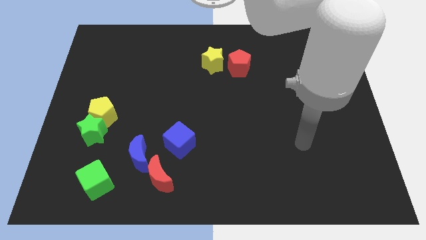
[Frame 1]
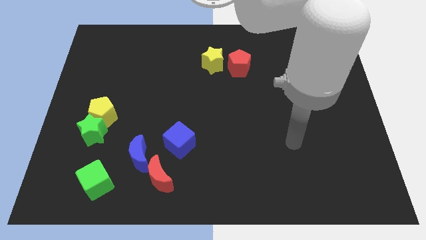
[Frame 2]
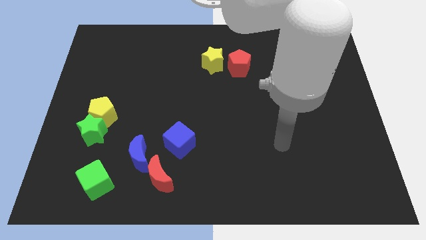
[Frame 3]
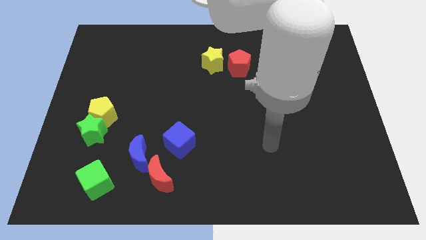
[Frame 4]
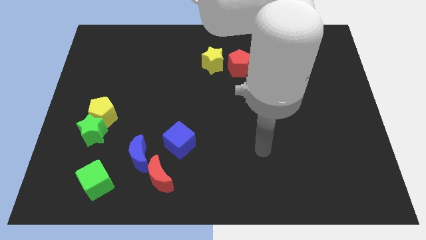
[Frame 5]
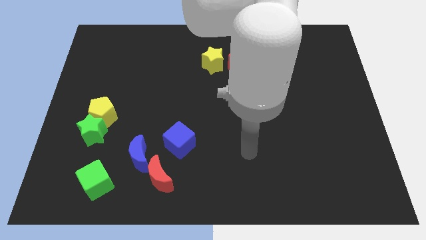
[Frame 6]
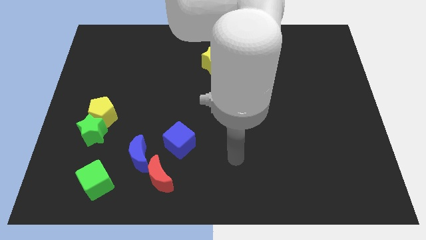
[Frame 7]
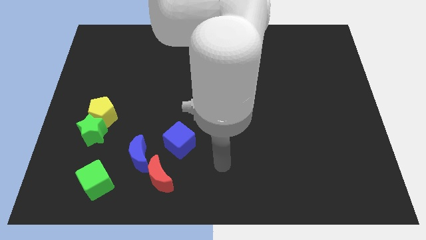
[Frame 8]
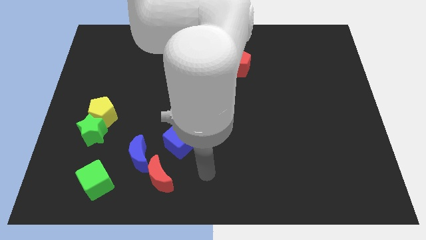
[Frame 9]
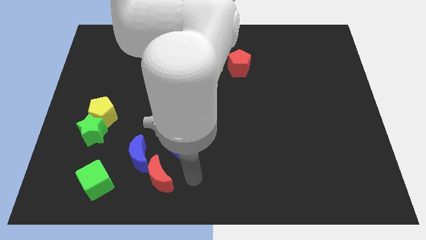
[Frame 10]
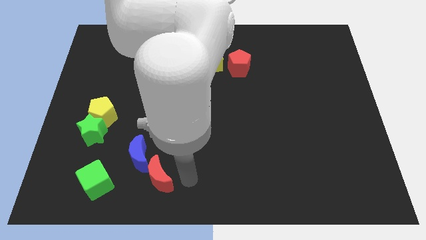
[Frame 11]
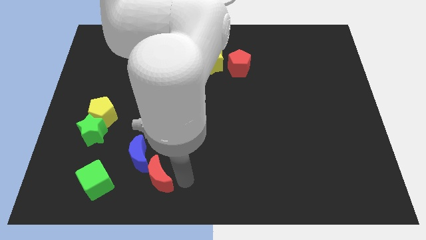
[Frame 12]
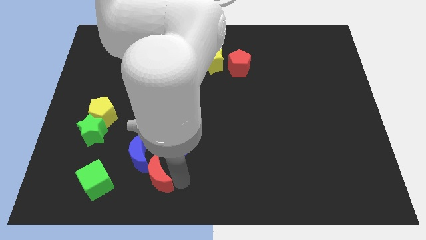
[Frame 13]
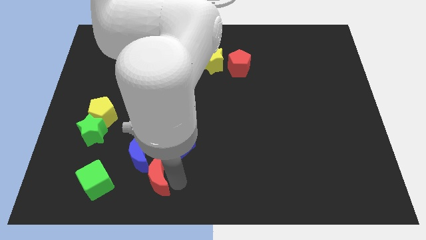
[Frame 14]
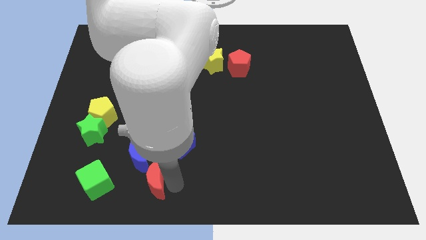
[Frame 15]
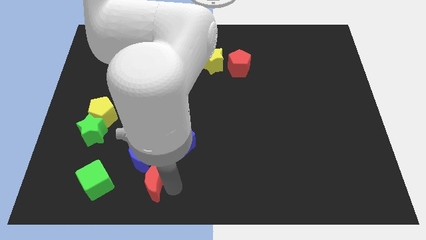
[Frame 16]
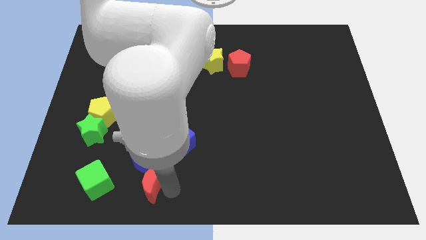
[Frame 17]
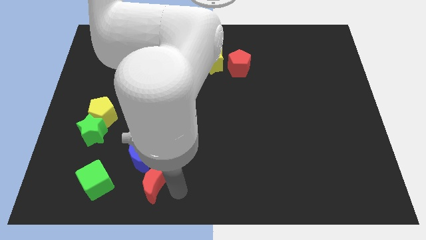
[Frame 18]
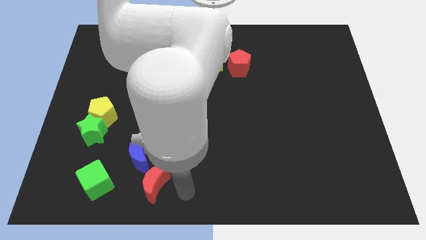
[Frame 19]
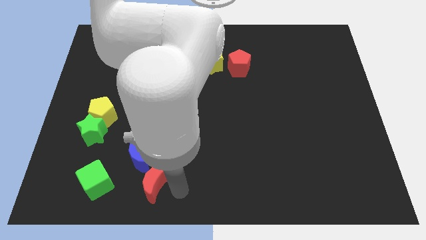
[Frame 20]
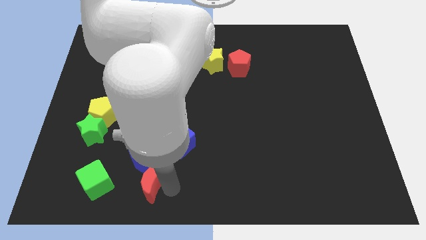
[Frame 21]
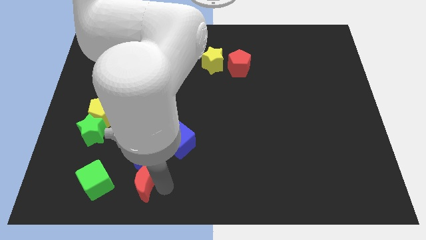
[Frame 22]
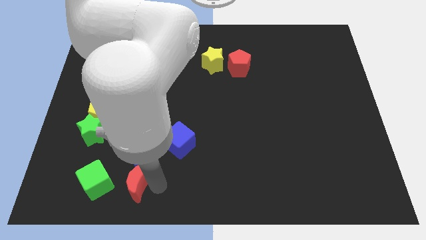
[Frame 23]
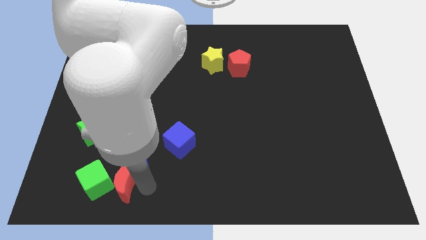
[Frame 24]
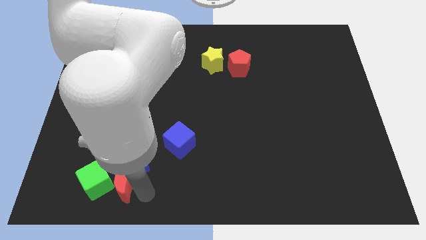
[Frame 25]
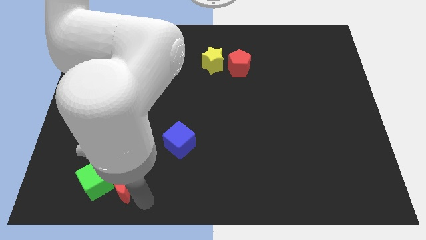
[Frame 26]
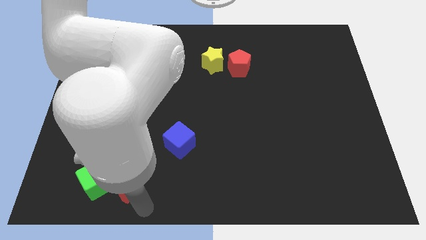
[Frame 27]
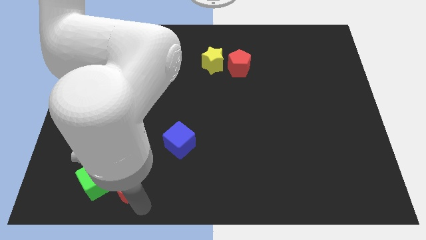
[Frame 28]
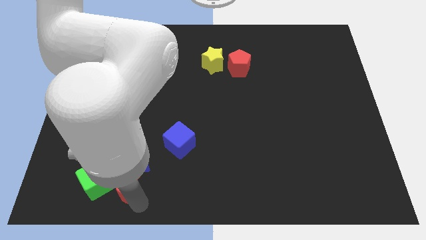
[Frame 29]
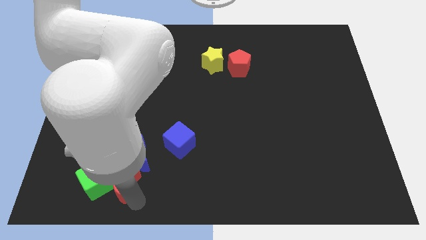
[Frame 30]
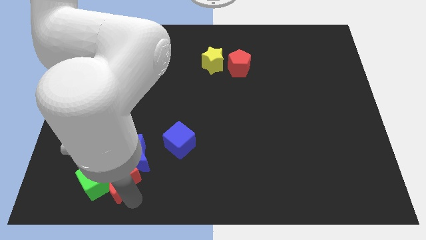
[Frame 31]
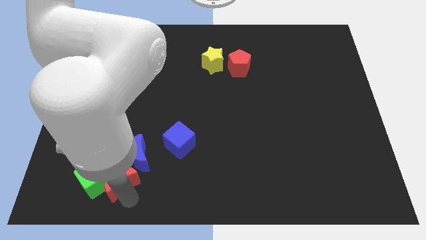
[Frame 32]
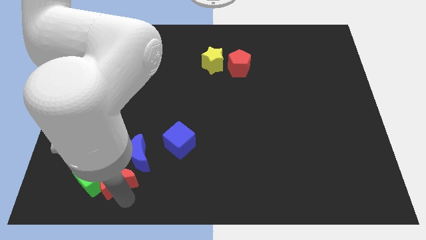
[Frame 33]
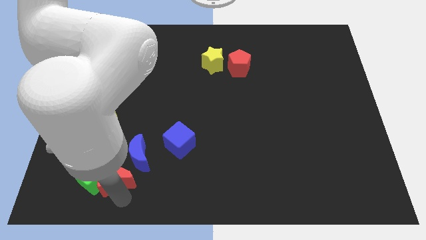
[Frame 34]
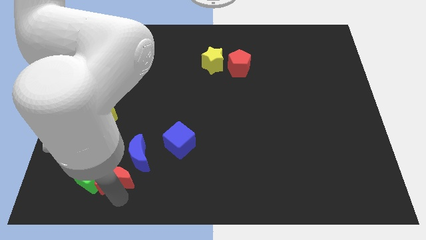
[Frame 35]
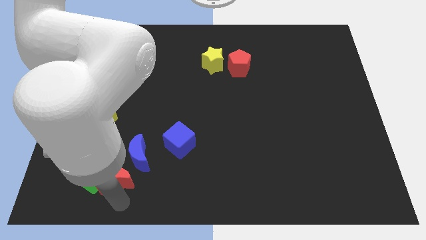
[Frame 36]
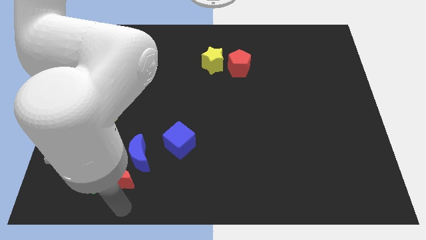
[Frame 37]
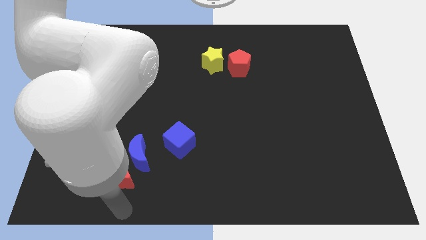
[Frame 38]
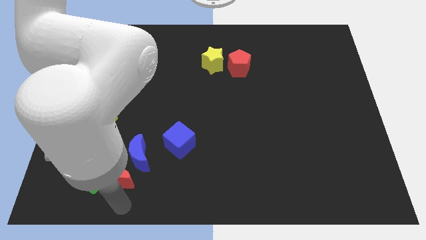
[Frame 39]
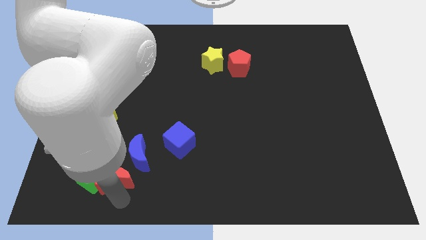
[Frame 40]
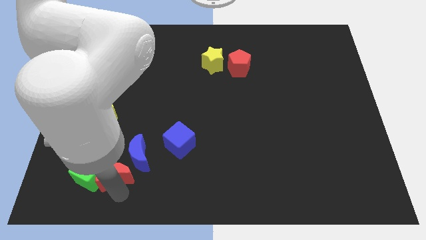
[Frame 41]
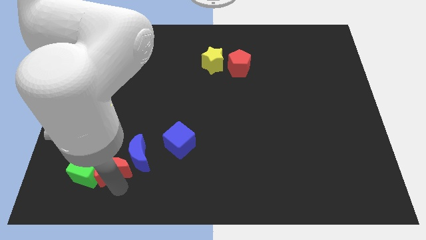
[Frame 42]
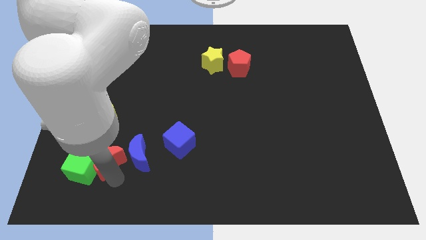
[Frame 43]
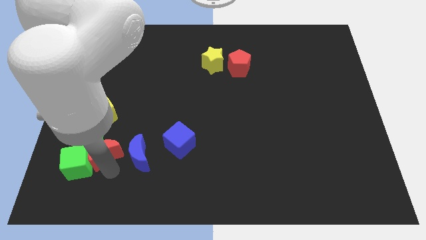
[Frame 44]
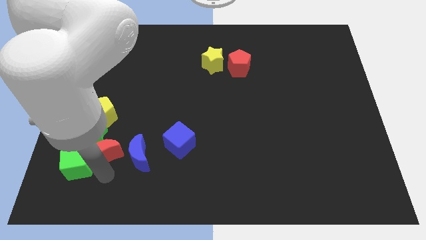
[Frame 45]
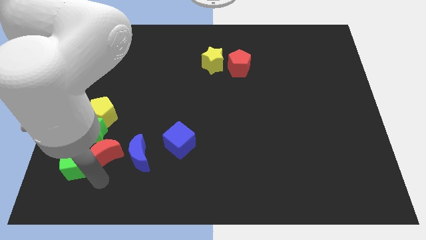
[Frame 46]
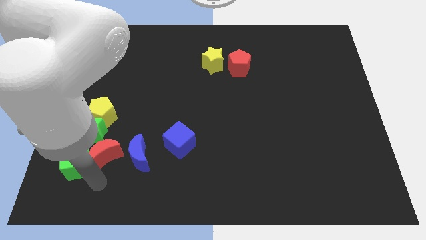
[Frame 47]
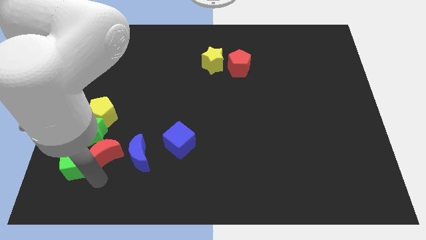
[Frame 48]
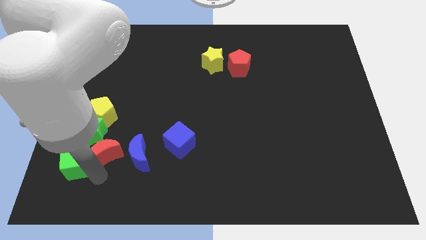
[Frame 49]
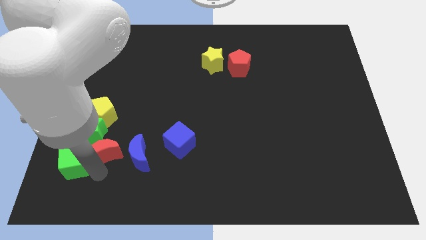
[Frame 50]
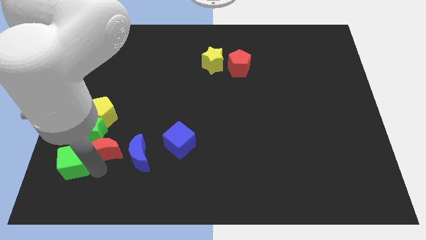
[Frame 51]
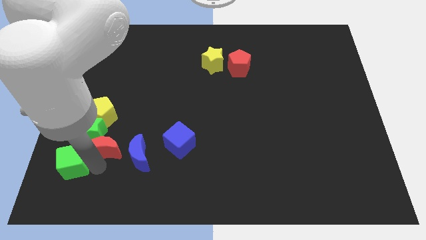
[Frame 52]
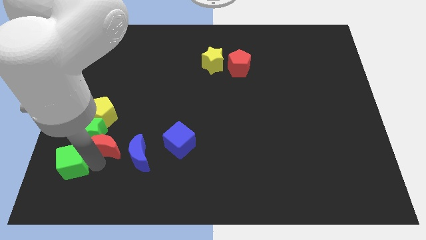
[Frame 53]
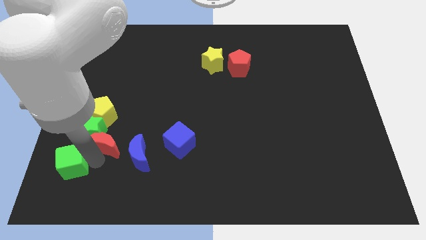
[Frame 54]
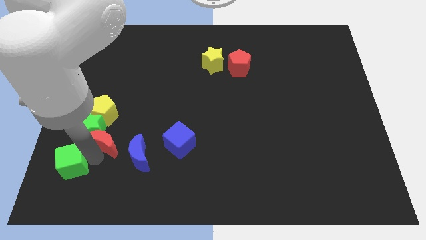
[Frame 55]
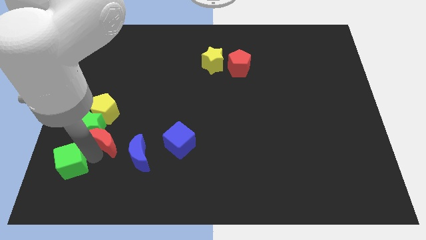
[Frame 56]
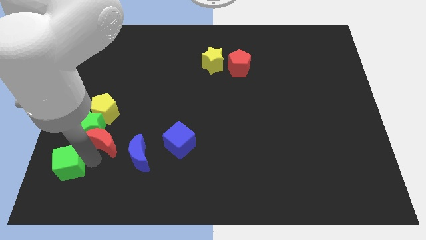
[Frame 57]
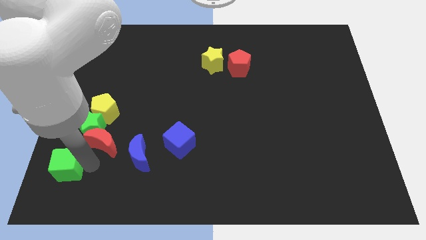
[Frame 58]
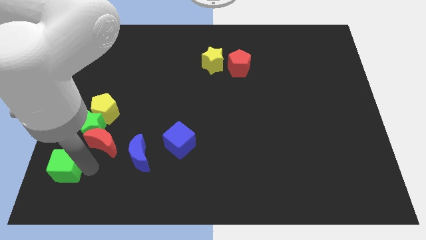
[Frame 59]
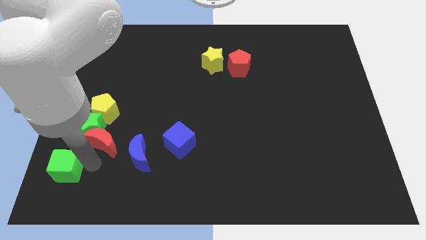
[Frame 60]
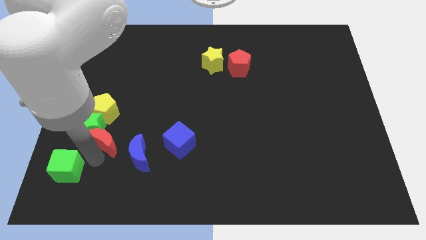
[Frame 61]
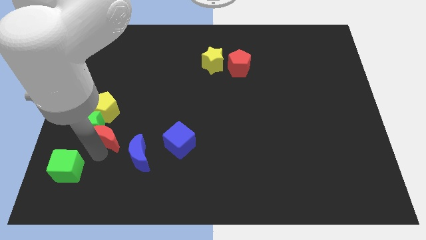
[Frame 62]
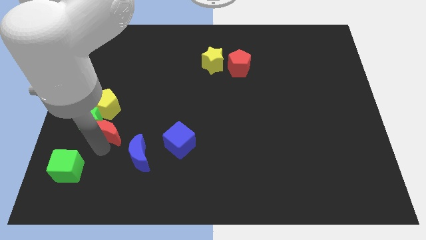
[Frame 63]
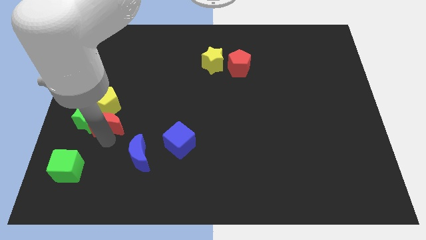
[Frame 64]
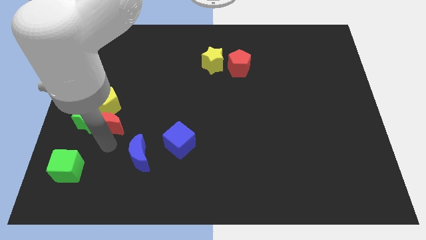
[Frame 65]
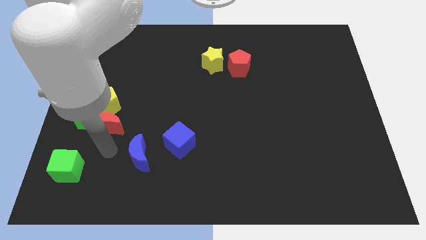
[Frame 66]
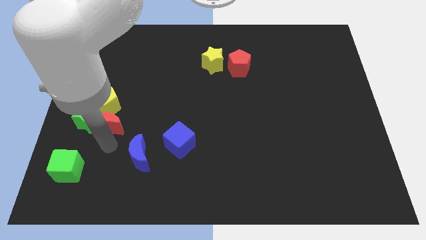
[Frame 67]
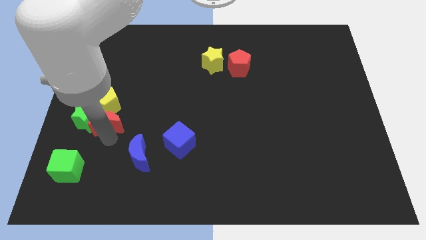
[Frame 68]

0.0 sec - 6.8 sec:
push the red moon to the yellow pentagon
